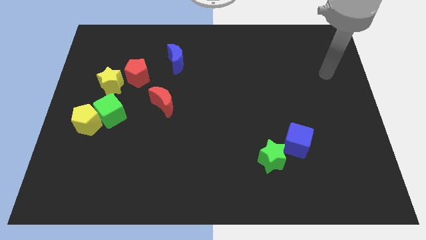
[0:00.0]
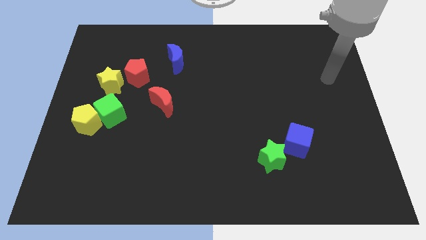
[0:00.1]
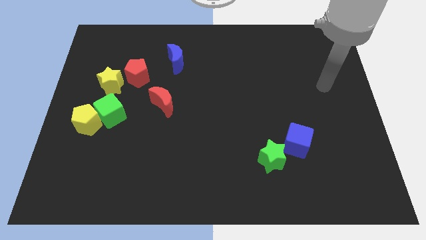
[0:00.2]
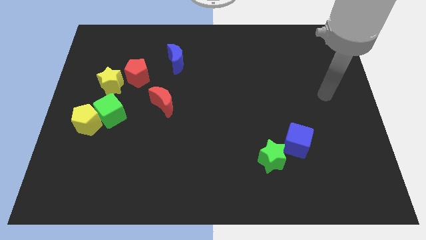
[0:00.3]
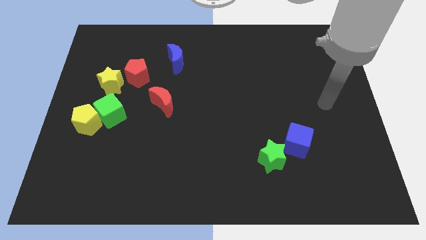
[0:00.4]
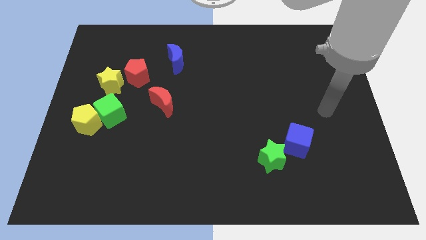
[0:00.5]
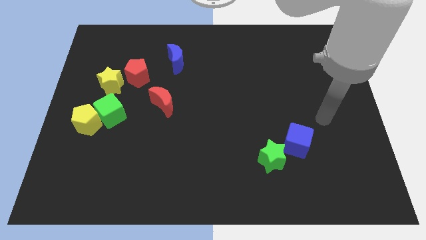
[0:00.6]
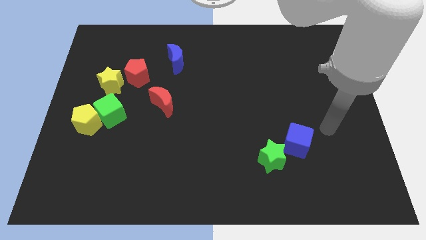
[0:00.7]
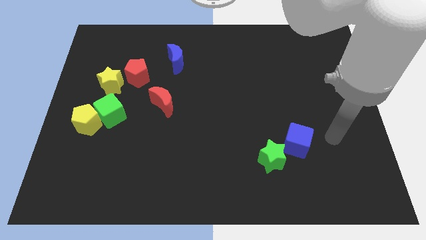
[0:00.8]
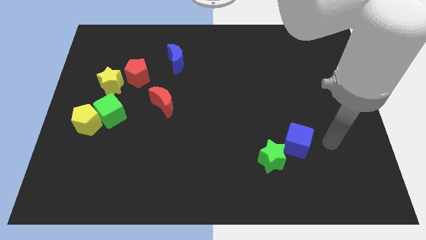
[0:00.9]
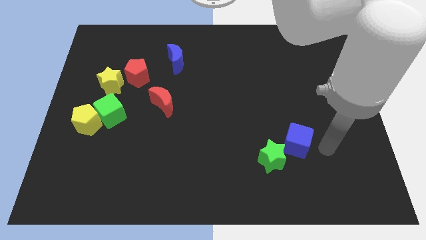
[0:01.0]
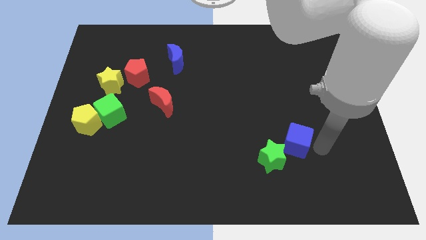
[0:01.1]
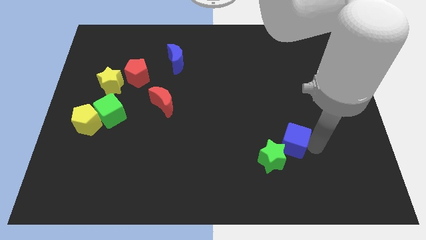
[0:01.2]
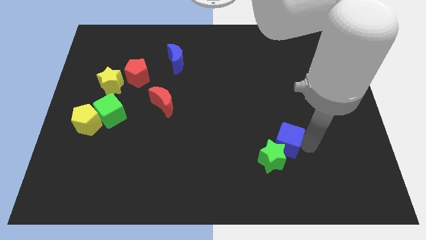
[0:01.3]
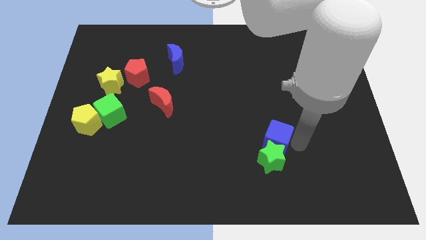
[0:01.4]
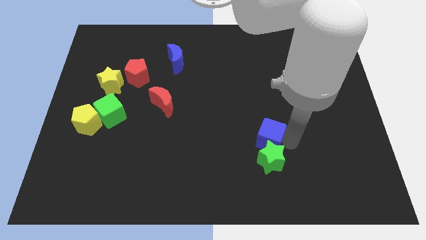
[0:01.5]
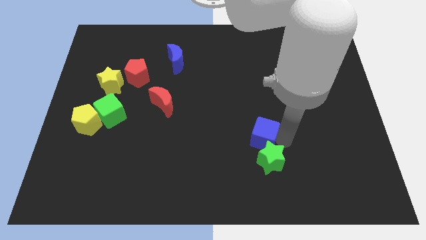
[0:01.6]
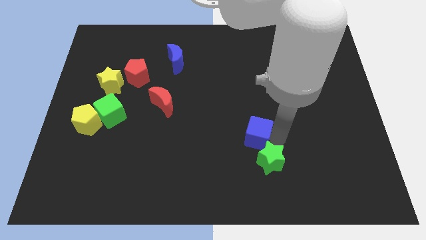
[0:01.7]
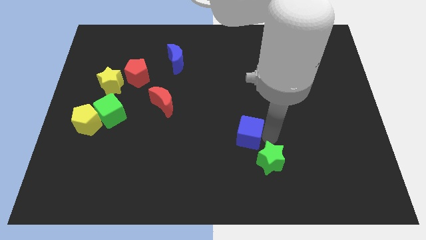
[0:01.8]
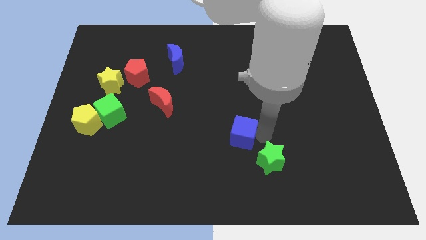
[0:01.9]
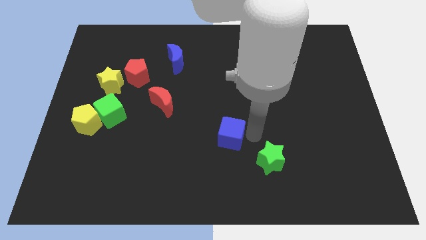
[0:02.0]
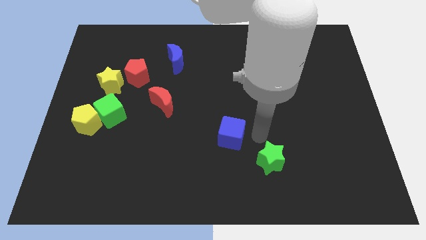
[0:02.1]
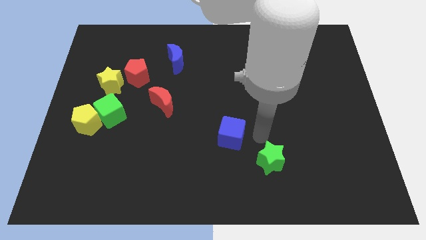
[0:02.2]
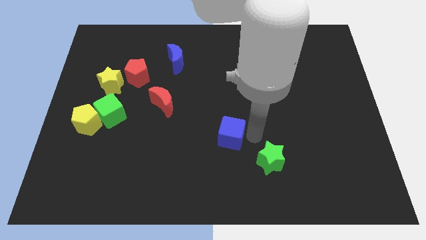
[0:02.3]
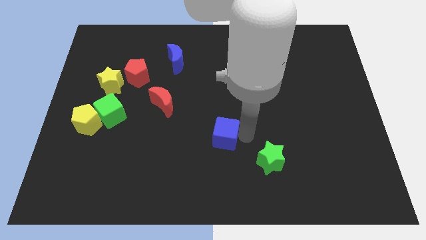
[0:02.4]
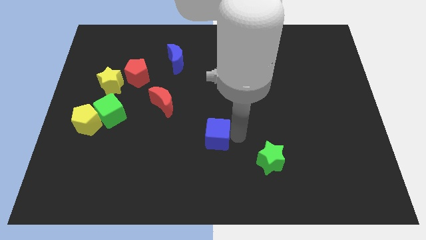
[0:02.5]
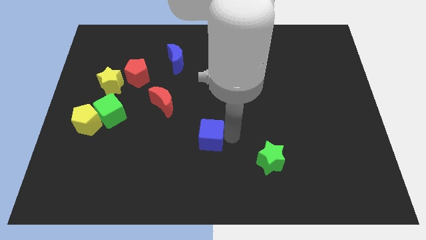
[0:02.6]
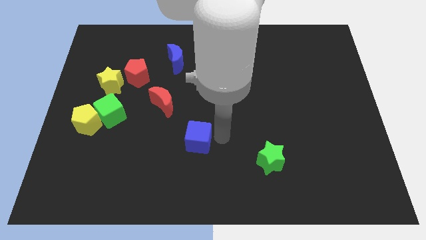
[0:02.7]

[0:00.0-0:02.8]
move the blue cube to the left

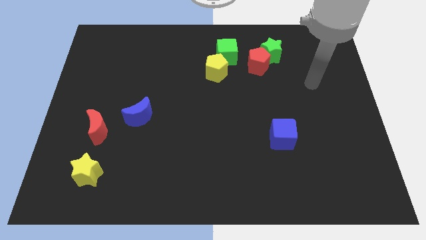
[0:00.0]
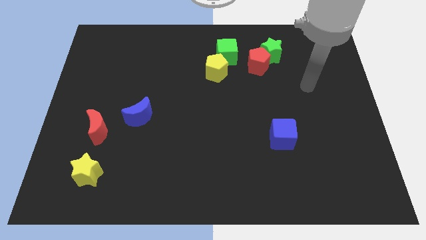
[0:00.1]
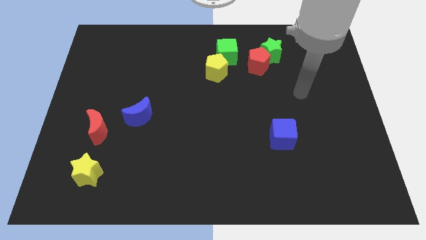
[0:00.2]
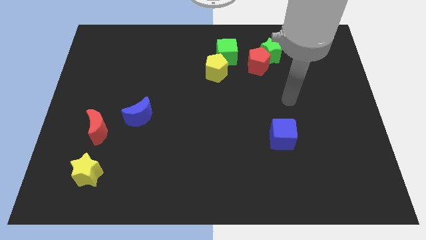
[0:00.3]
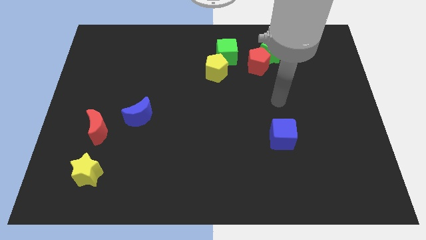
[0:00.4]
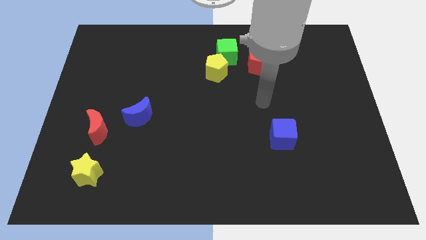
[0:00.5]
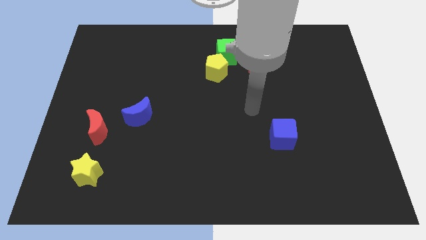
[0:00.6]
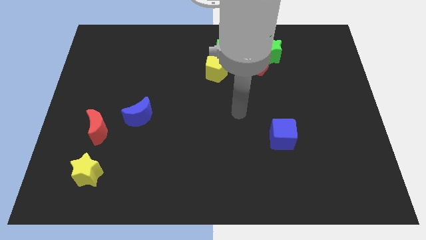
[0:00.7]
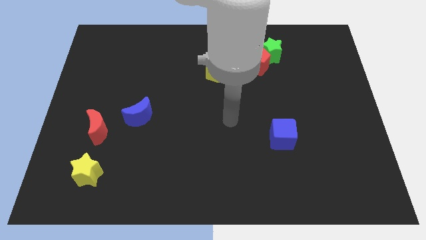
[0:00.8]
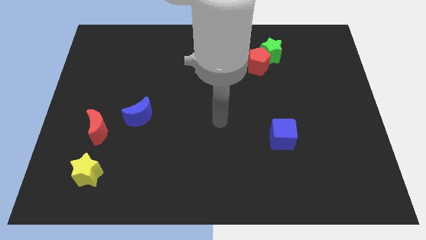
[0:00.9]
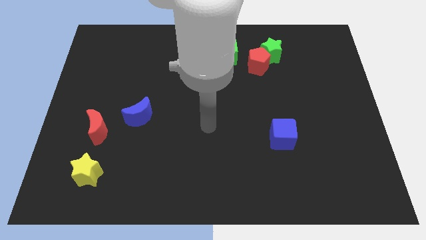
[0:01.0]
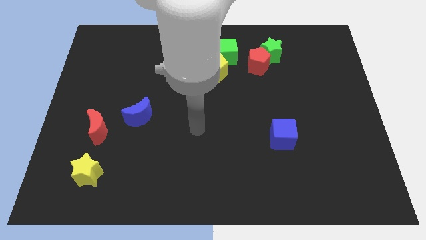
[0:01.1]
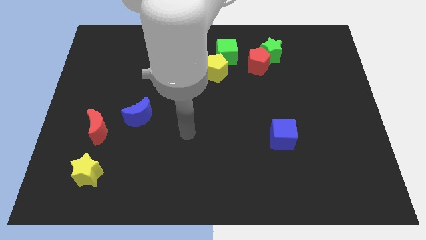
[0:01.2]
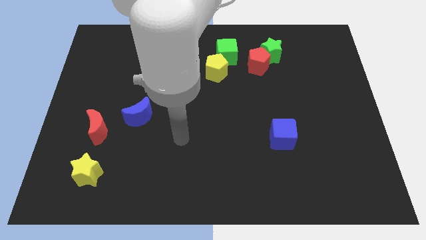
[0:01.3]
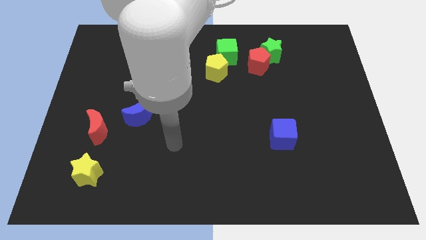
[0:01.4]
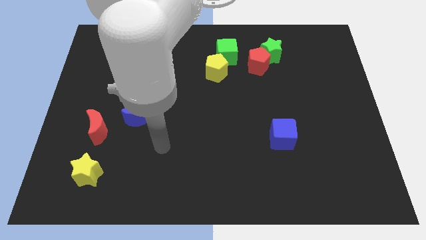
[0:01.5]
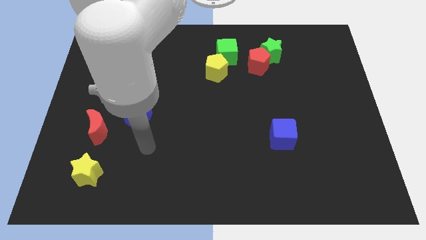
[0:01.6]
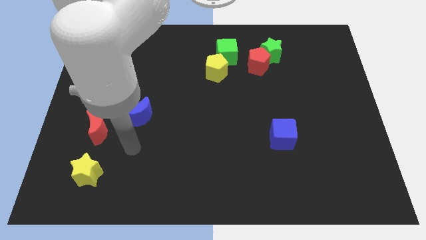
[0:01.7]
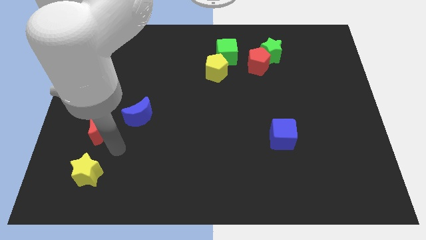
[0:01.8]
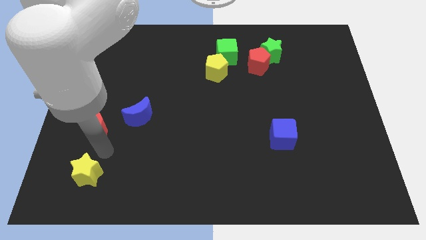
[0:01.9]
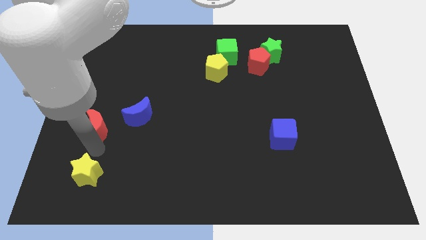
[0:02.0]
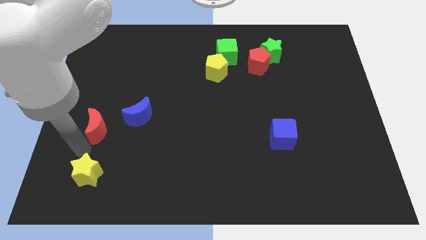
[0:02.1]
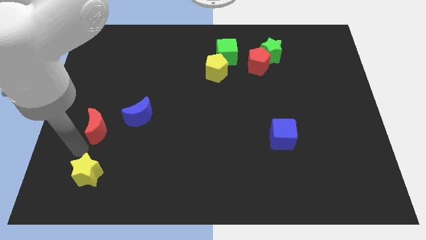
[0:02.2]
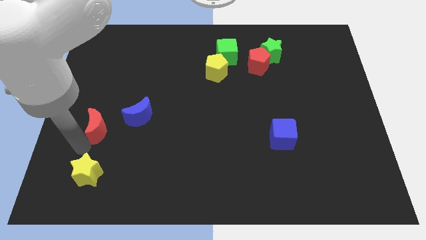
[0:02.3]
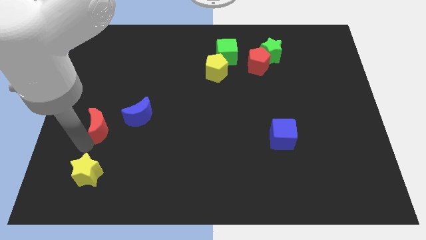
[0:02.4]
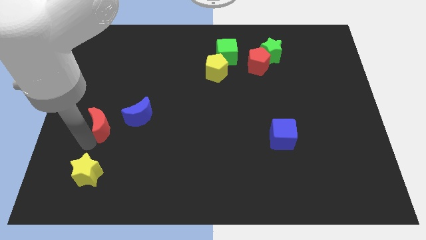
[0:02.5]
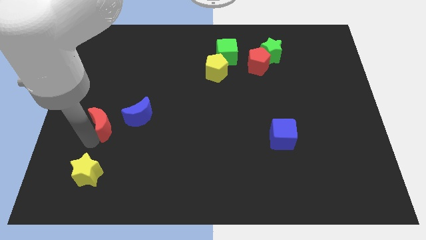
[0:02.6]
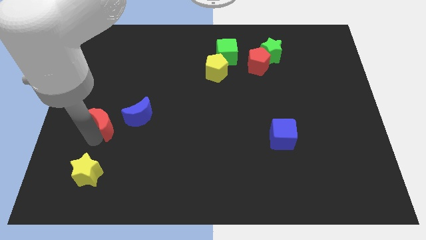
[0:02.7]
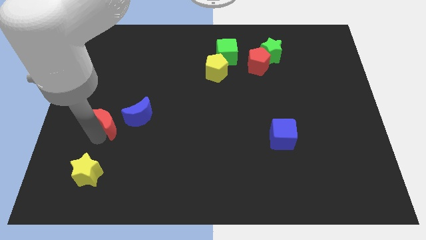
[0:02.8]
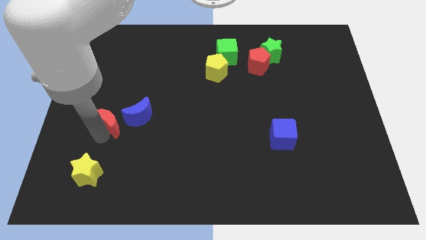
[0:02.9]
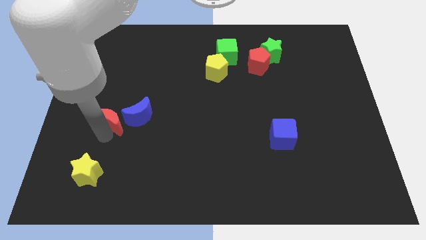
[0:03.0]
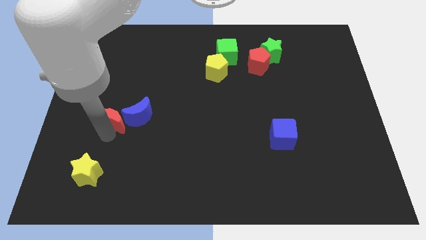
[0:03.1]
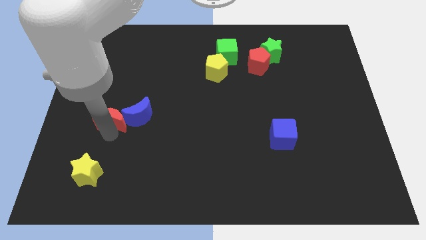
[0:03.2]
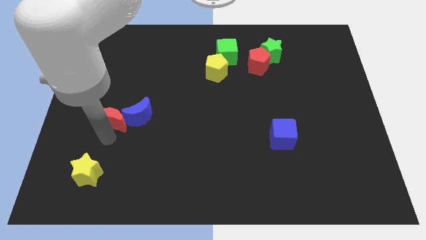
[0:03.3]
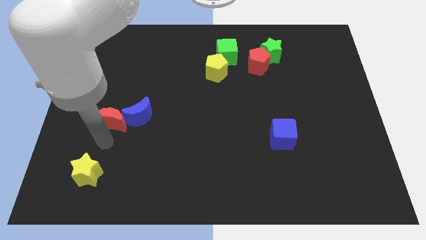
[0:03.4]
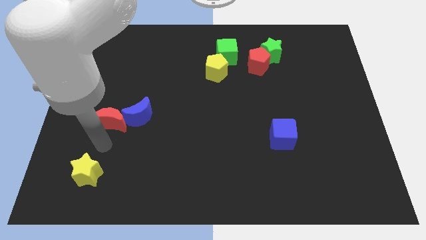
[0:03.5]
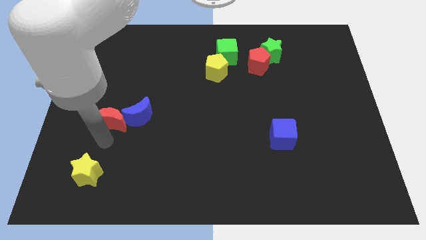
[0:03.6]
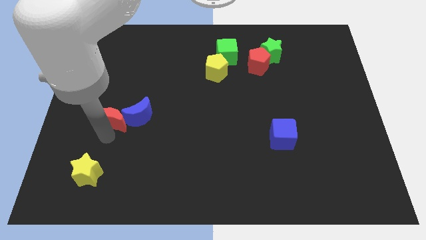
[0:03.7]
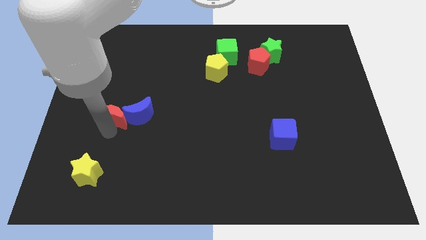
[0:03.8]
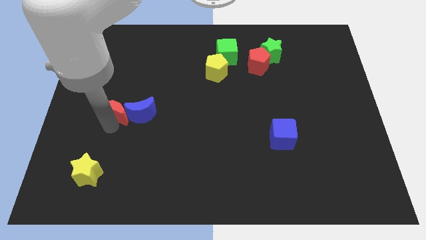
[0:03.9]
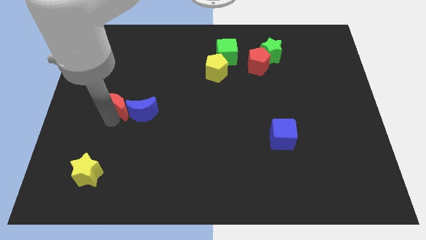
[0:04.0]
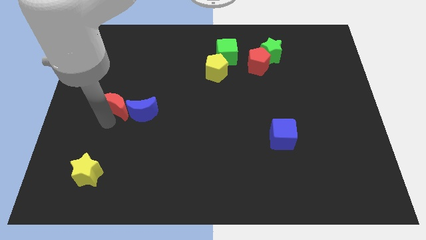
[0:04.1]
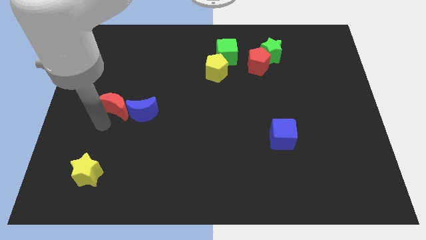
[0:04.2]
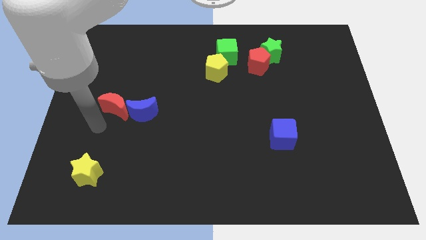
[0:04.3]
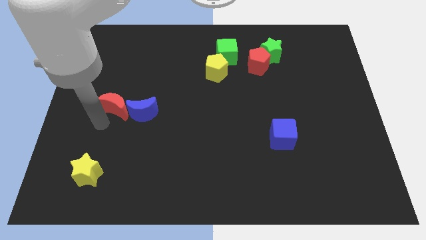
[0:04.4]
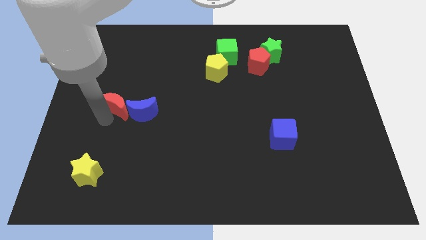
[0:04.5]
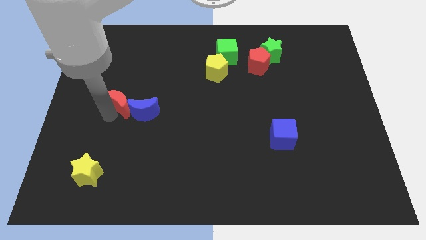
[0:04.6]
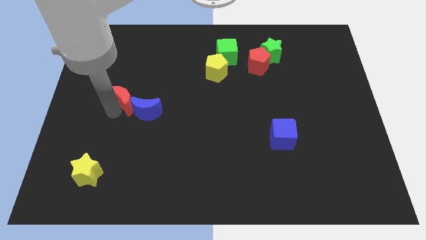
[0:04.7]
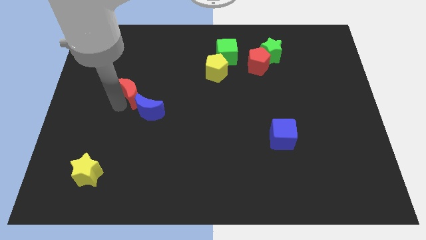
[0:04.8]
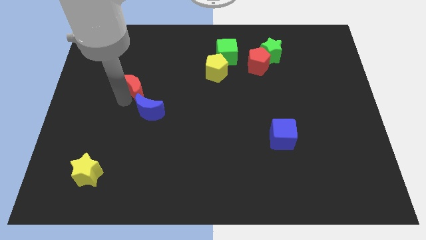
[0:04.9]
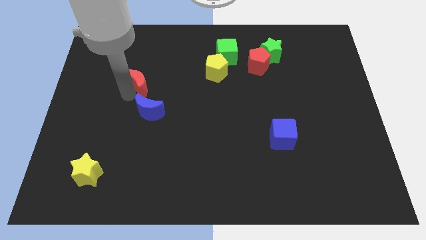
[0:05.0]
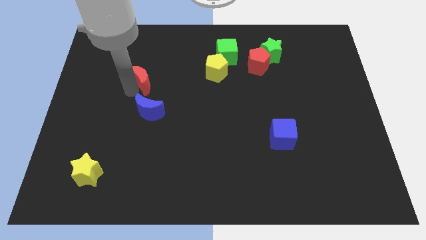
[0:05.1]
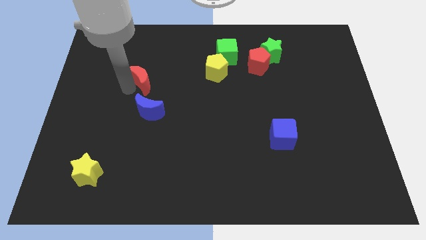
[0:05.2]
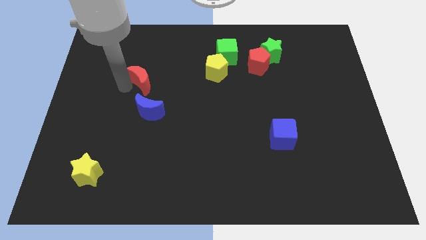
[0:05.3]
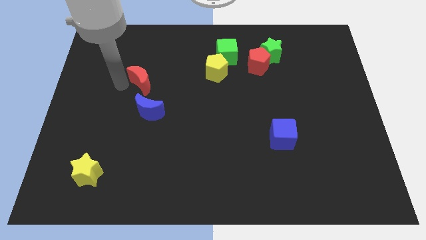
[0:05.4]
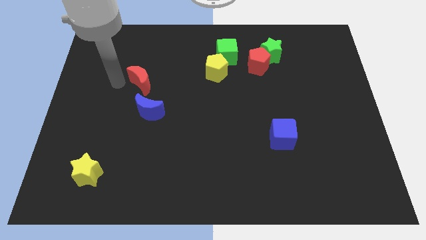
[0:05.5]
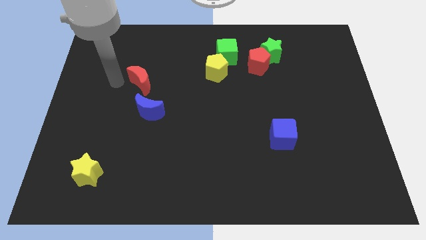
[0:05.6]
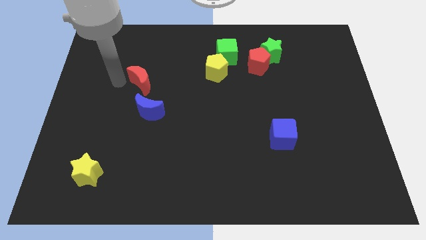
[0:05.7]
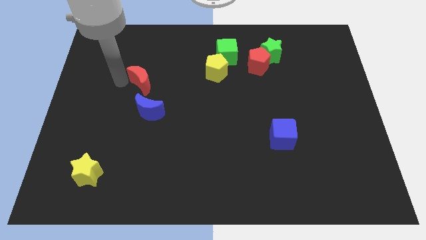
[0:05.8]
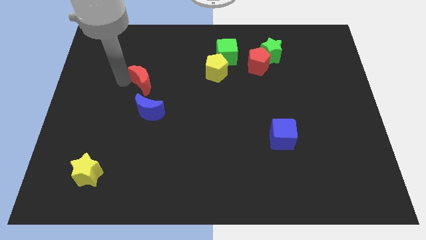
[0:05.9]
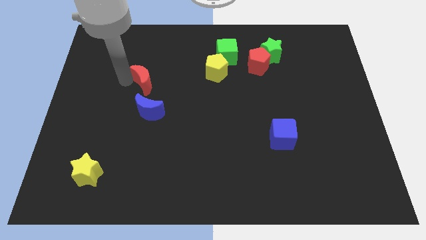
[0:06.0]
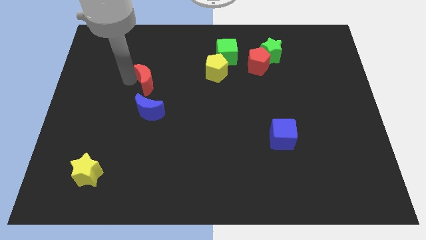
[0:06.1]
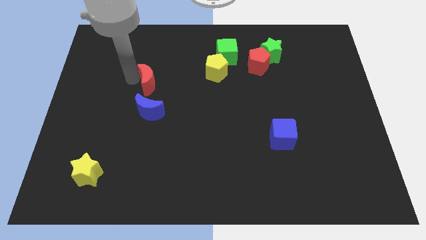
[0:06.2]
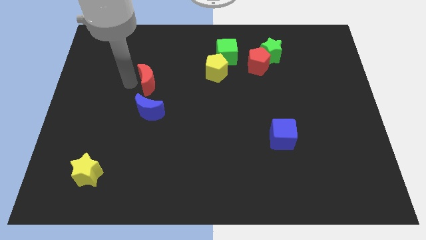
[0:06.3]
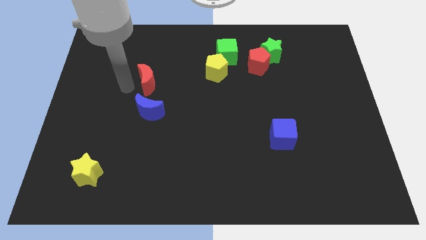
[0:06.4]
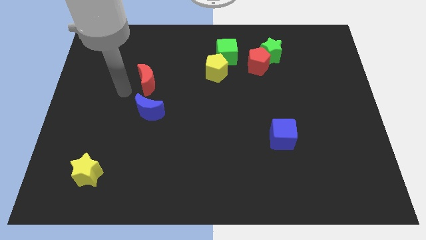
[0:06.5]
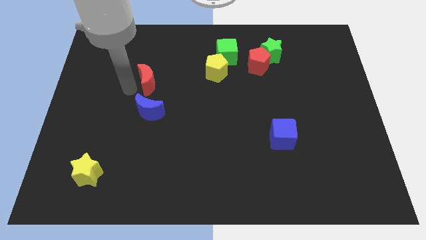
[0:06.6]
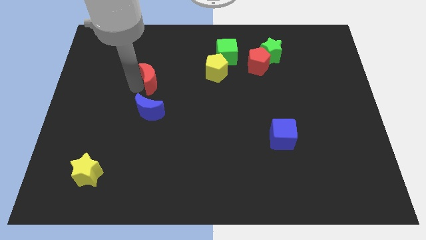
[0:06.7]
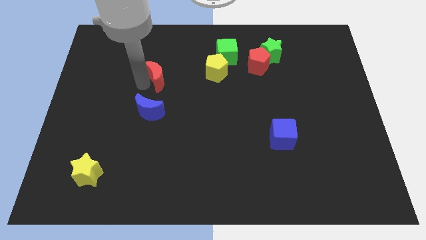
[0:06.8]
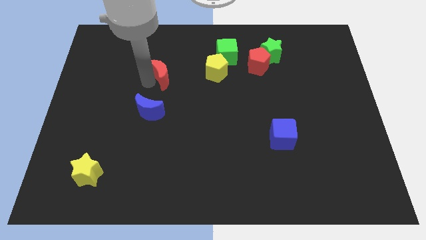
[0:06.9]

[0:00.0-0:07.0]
slide the red moon diagonally upwards and to the right
